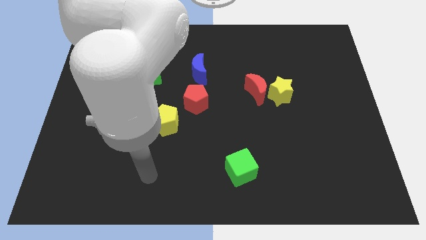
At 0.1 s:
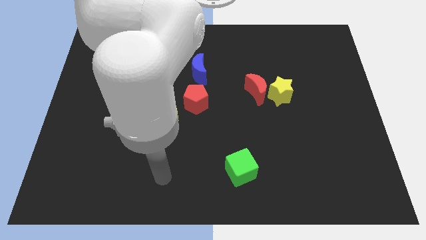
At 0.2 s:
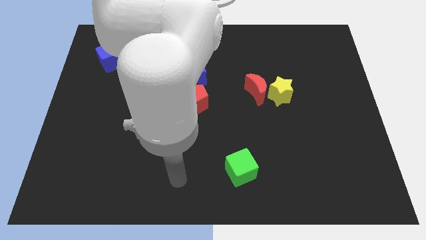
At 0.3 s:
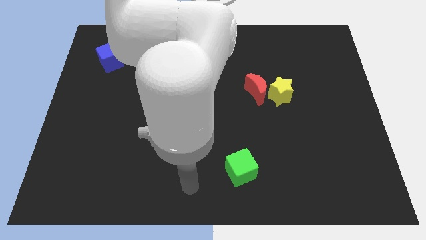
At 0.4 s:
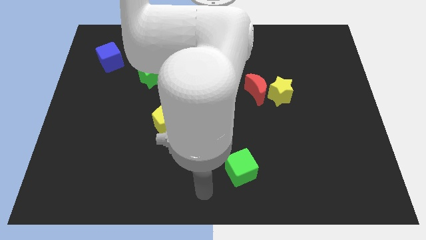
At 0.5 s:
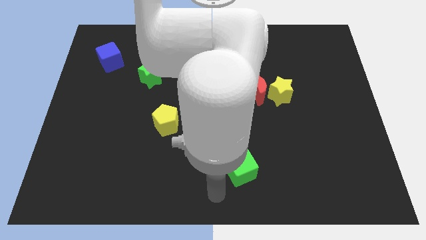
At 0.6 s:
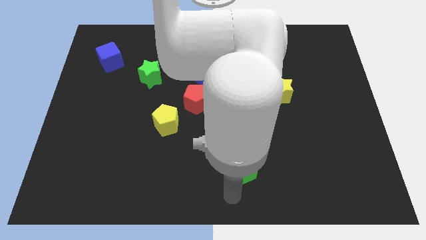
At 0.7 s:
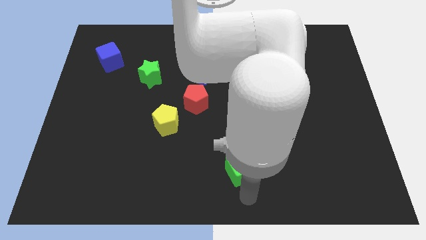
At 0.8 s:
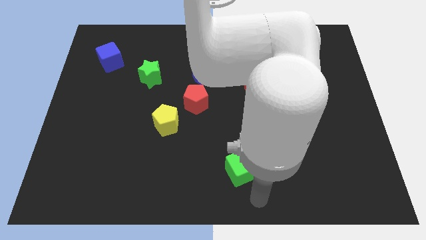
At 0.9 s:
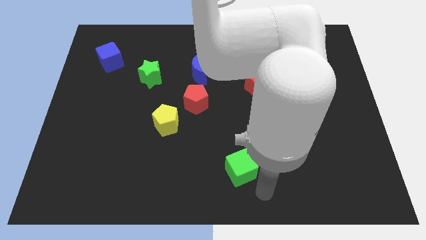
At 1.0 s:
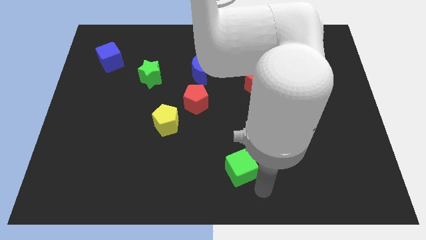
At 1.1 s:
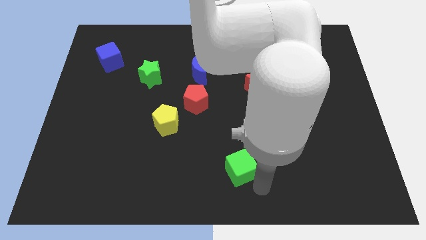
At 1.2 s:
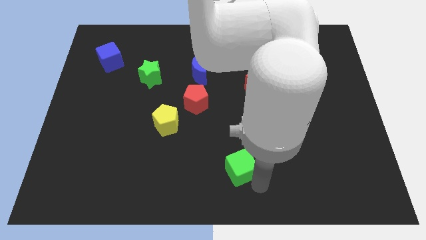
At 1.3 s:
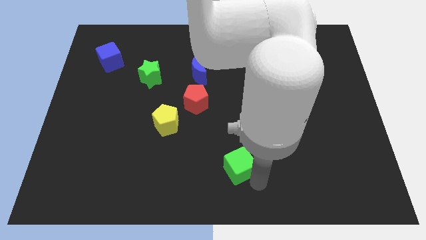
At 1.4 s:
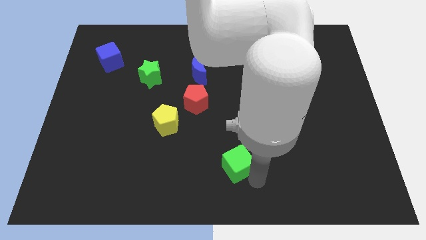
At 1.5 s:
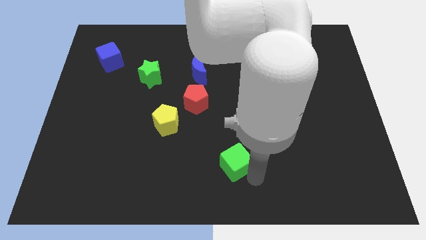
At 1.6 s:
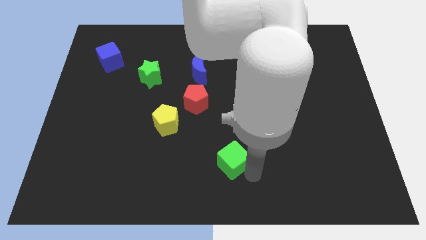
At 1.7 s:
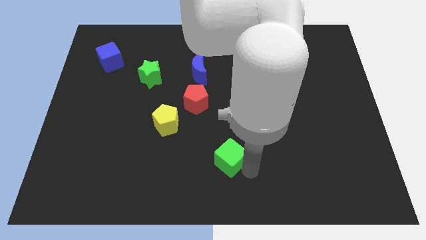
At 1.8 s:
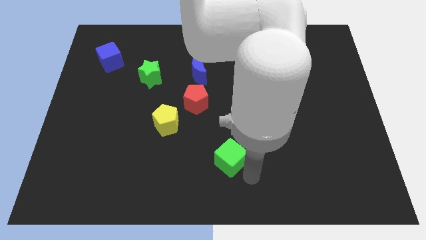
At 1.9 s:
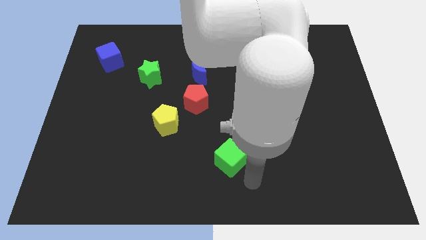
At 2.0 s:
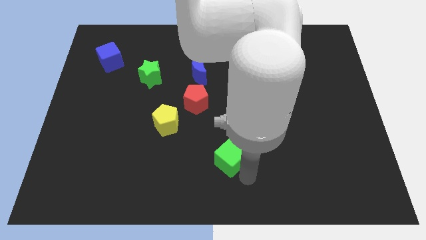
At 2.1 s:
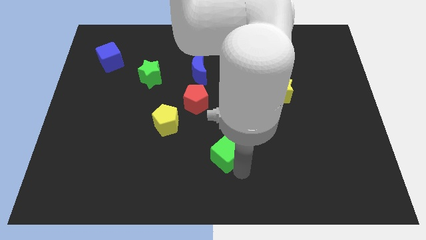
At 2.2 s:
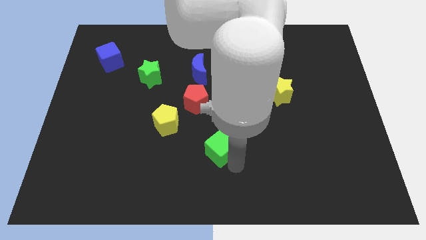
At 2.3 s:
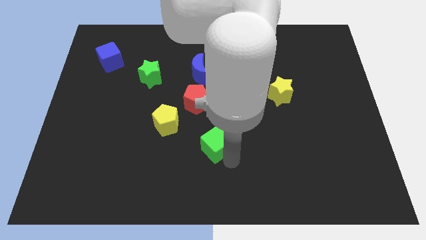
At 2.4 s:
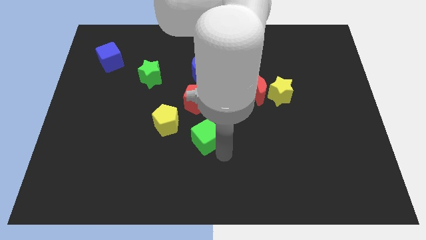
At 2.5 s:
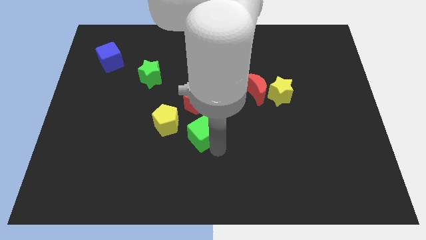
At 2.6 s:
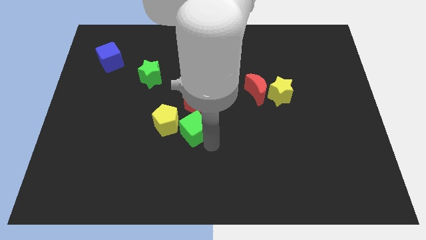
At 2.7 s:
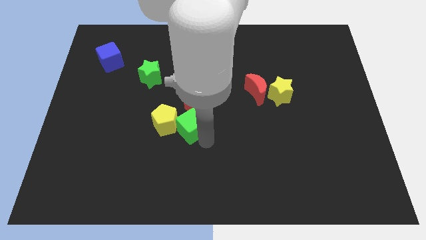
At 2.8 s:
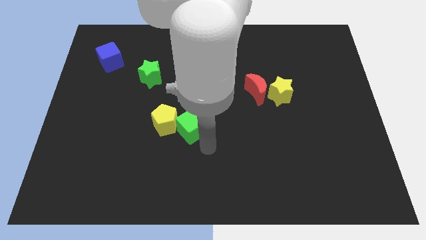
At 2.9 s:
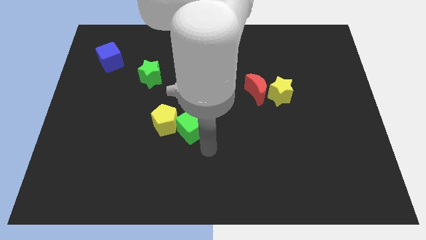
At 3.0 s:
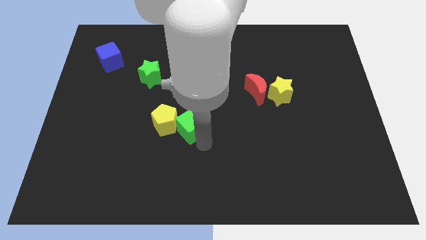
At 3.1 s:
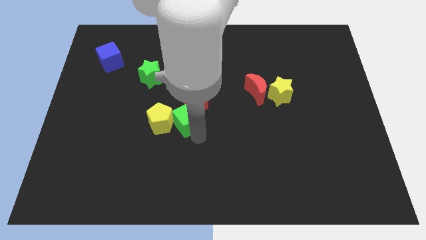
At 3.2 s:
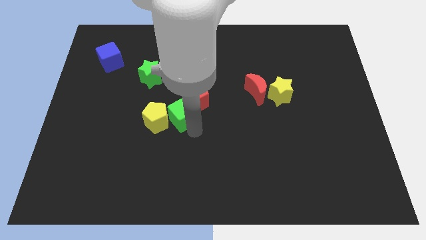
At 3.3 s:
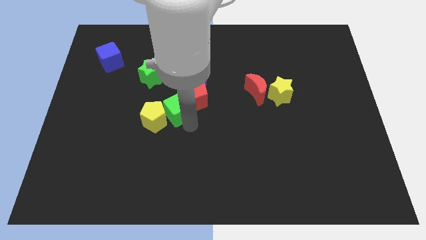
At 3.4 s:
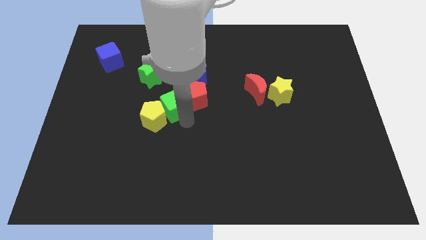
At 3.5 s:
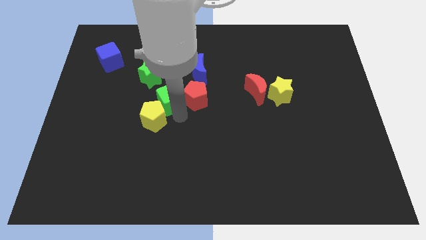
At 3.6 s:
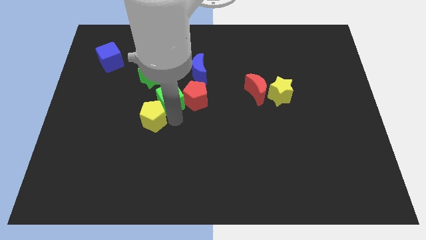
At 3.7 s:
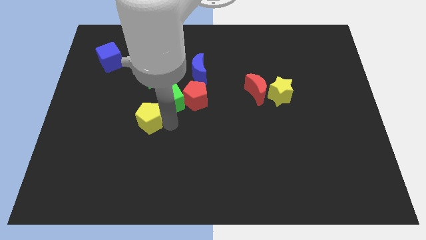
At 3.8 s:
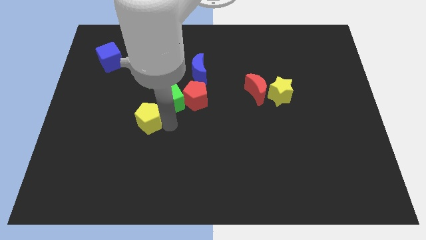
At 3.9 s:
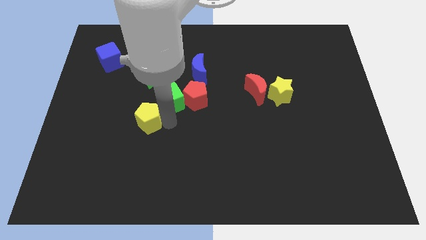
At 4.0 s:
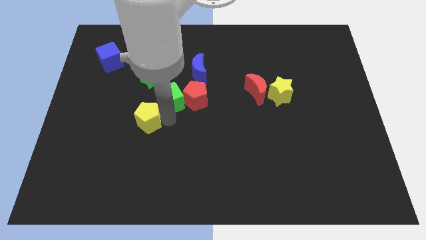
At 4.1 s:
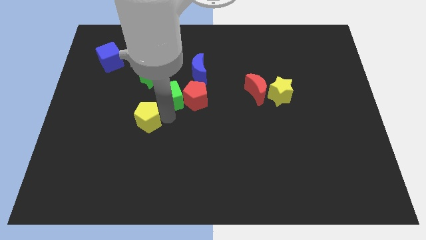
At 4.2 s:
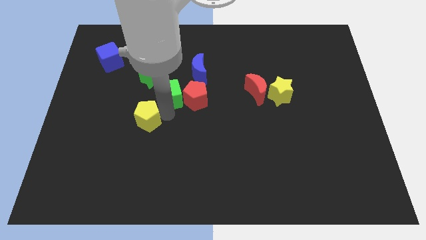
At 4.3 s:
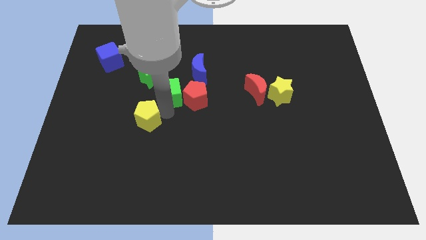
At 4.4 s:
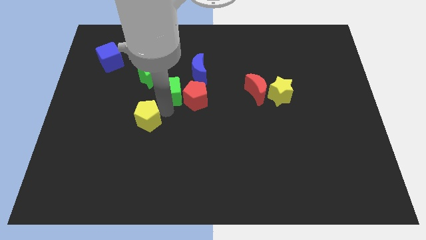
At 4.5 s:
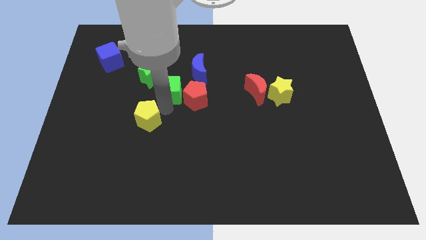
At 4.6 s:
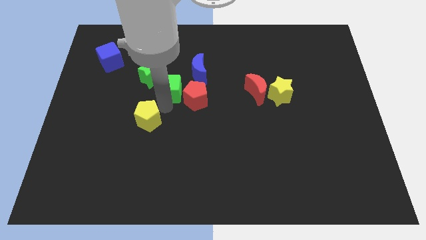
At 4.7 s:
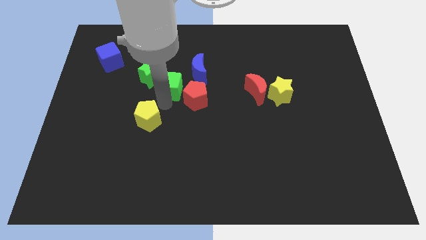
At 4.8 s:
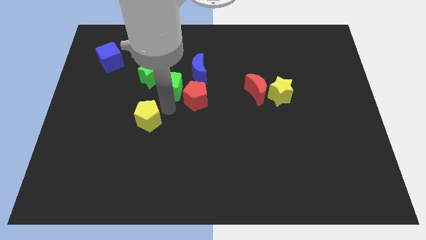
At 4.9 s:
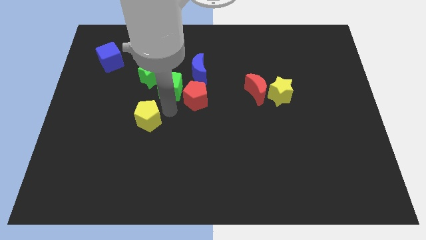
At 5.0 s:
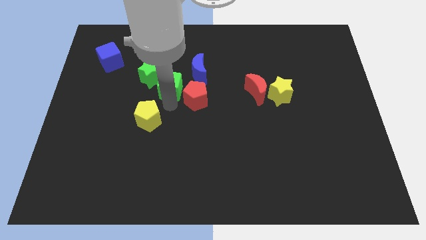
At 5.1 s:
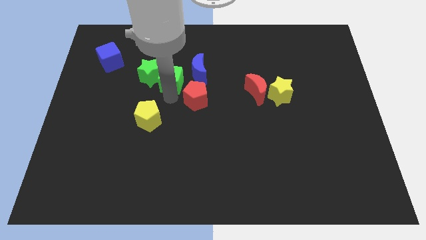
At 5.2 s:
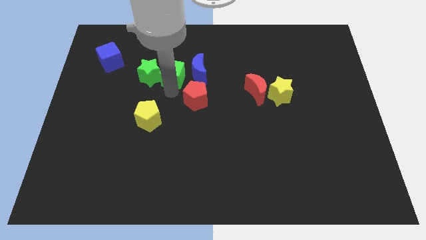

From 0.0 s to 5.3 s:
move the green cube diagonally up and to the right of the green star

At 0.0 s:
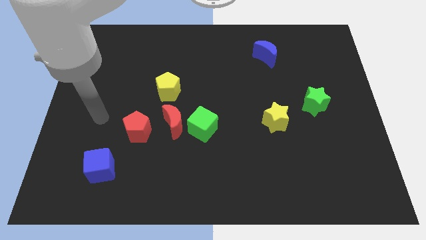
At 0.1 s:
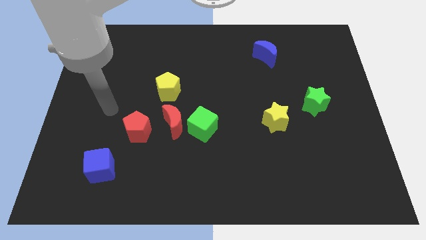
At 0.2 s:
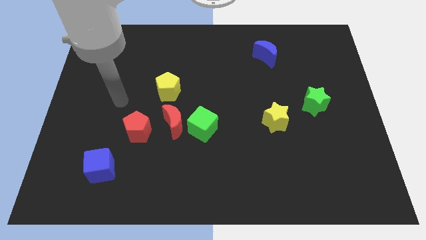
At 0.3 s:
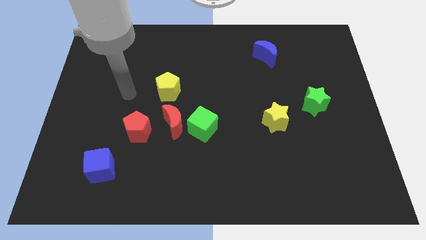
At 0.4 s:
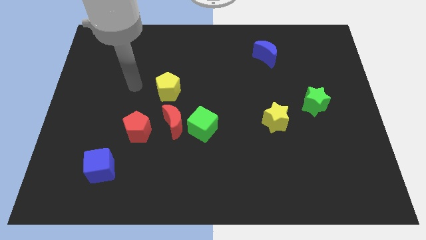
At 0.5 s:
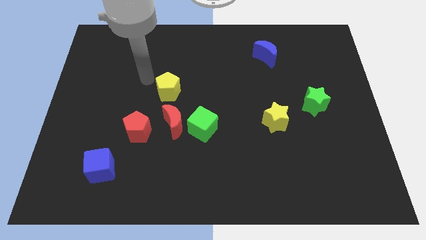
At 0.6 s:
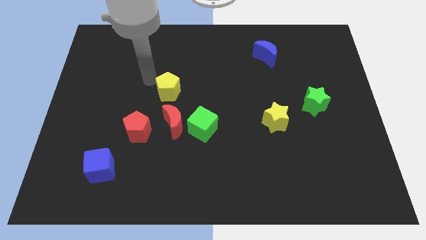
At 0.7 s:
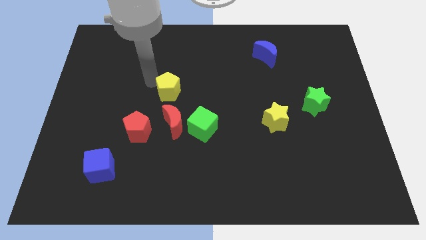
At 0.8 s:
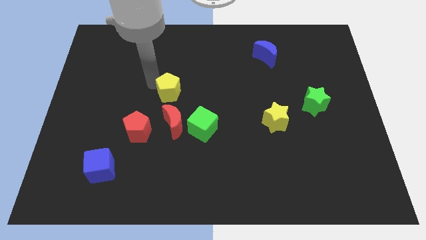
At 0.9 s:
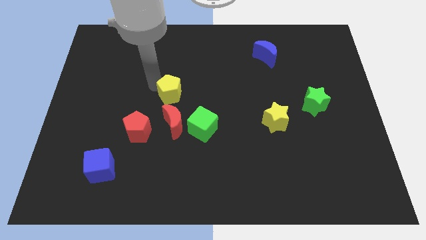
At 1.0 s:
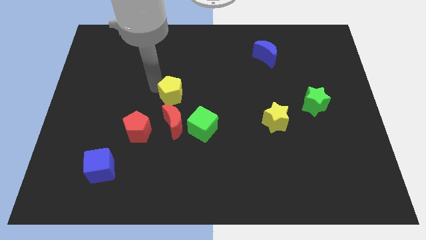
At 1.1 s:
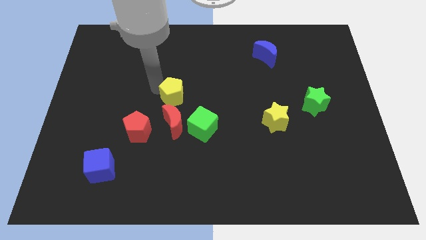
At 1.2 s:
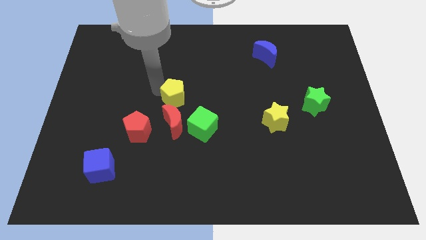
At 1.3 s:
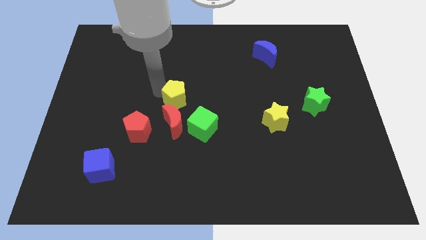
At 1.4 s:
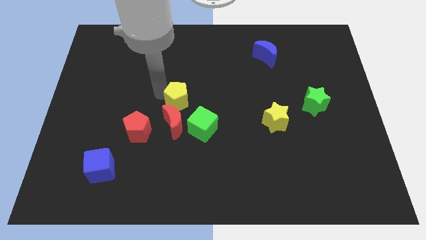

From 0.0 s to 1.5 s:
put the yellow pentagon diagonally up and to the right of the red moon

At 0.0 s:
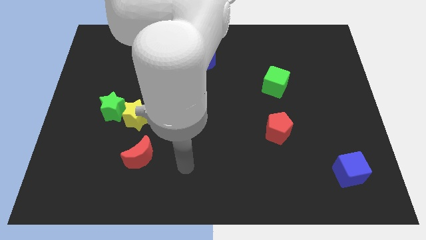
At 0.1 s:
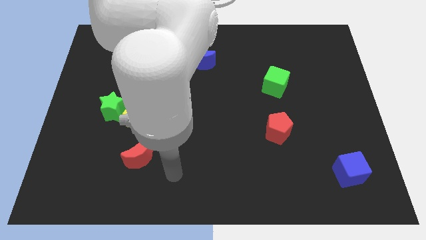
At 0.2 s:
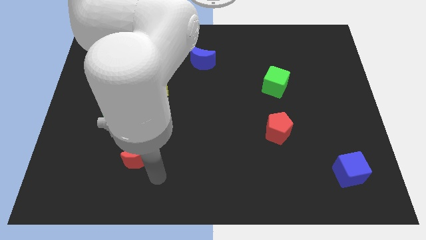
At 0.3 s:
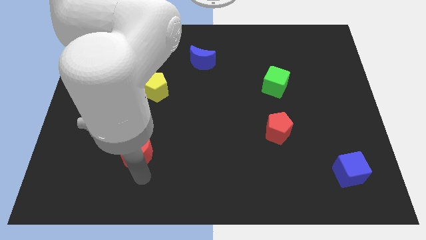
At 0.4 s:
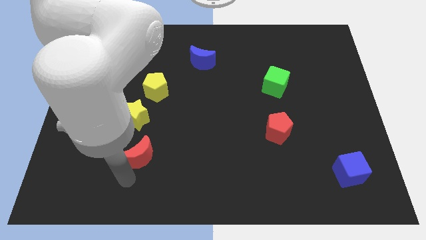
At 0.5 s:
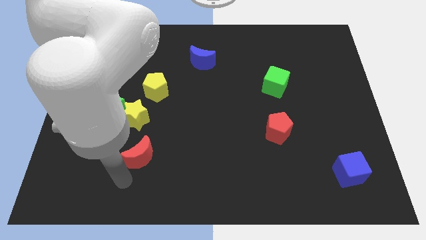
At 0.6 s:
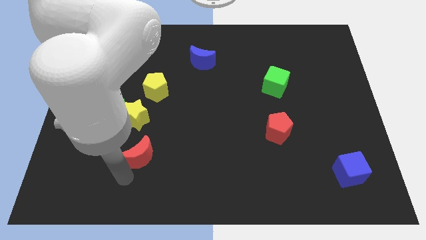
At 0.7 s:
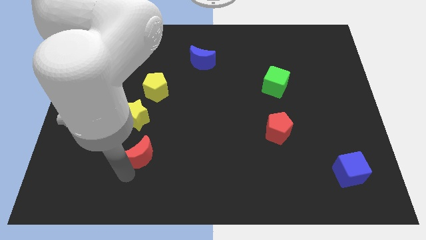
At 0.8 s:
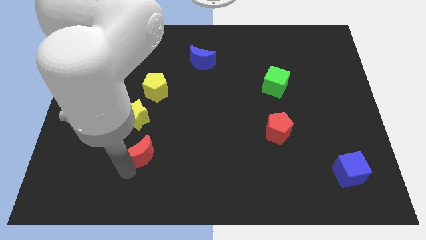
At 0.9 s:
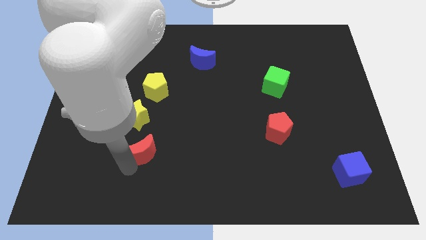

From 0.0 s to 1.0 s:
push the red moon diagonally down and to the right of the yellow star

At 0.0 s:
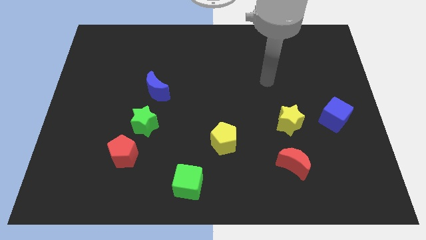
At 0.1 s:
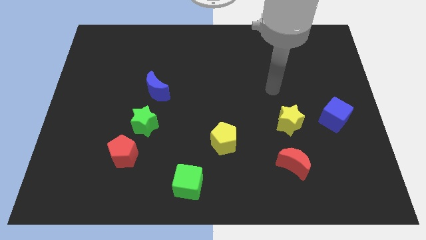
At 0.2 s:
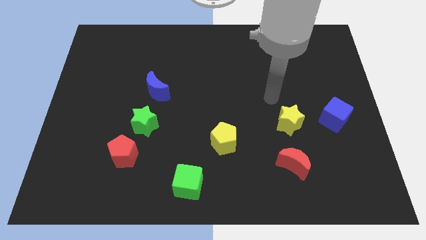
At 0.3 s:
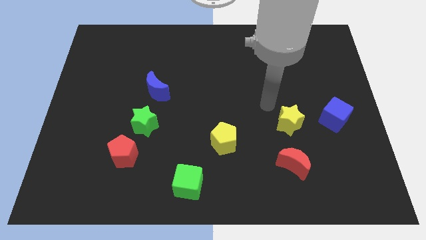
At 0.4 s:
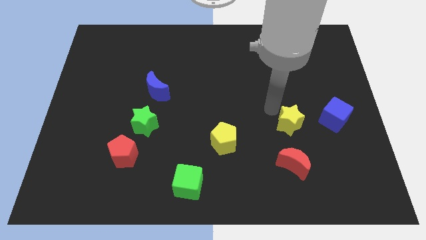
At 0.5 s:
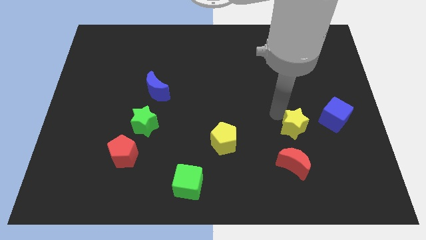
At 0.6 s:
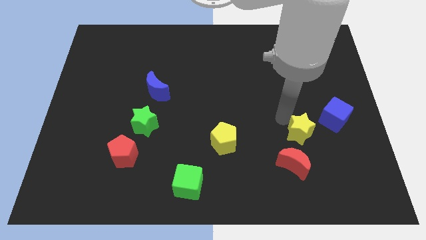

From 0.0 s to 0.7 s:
move the yellow star to the top right side of the red moon
